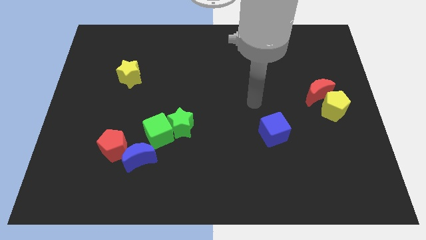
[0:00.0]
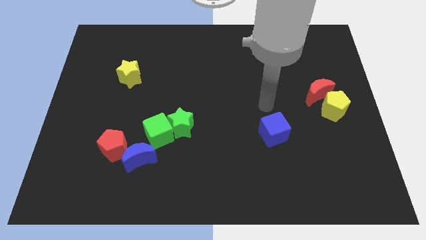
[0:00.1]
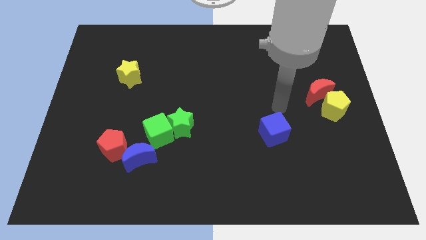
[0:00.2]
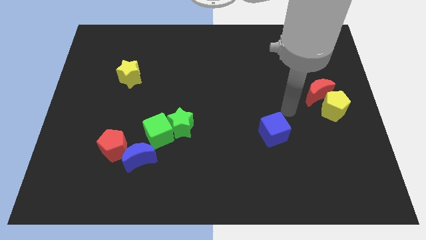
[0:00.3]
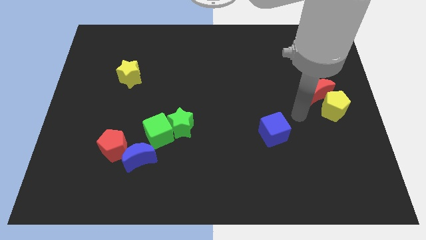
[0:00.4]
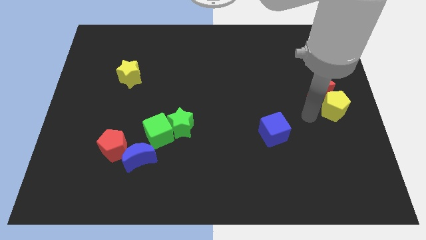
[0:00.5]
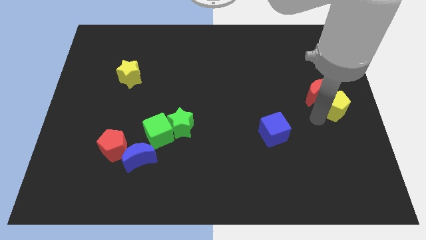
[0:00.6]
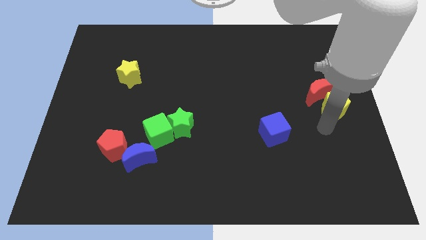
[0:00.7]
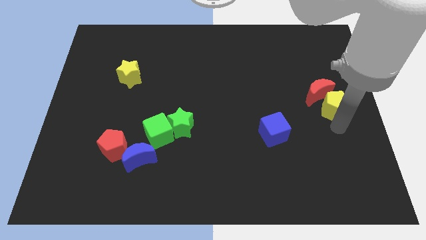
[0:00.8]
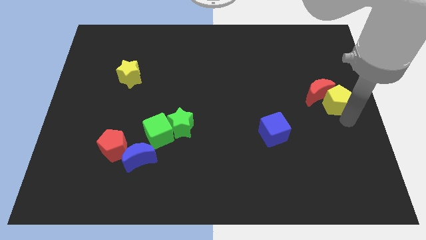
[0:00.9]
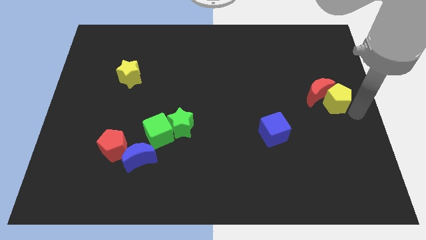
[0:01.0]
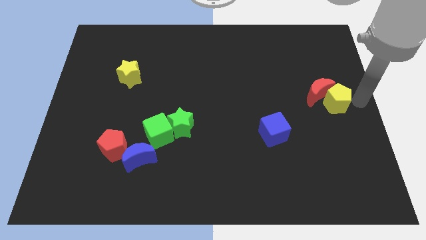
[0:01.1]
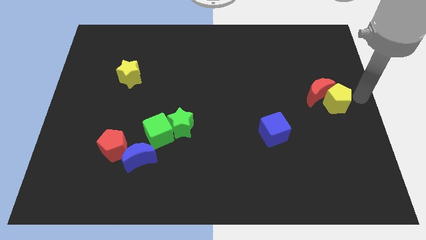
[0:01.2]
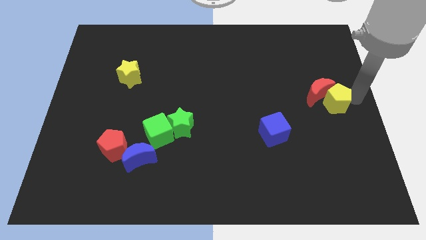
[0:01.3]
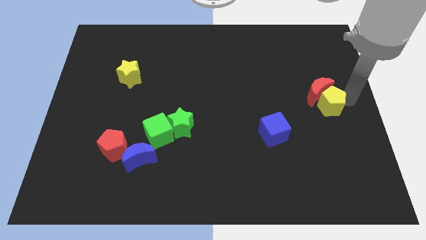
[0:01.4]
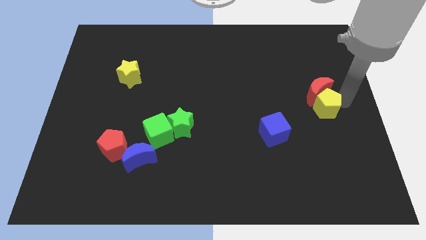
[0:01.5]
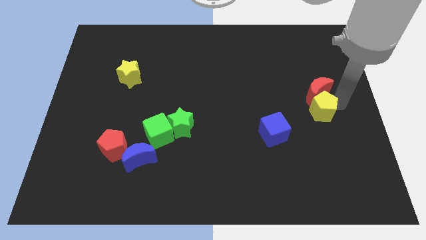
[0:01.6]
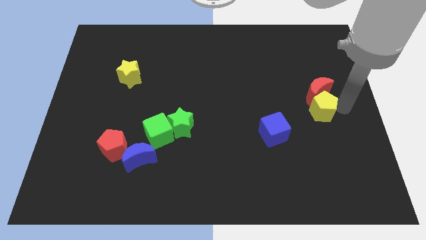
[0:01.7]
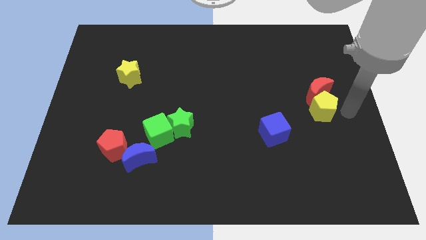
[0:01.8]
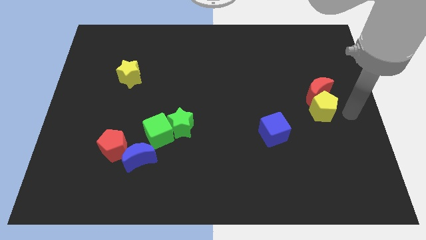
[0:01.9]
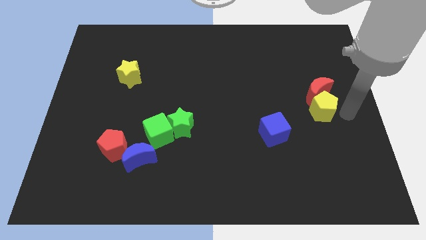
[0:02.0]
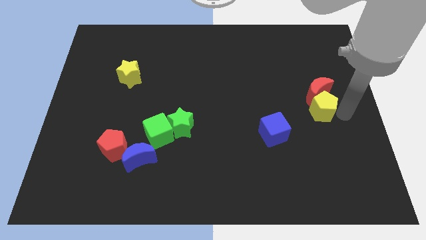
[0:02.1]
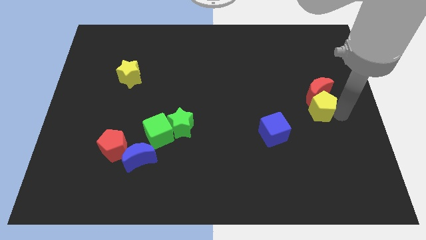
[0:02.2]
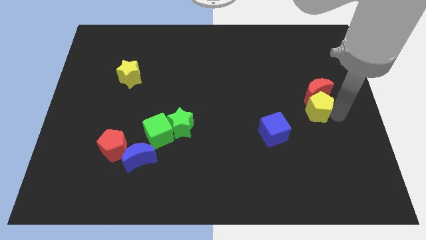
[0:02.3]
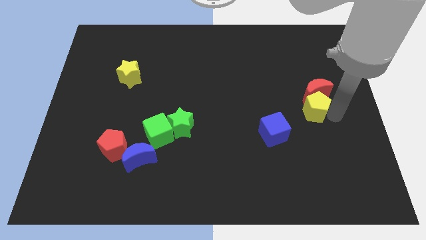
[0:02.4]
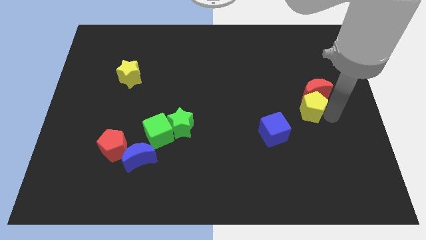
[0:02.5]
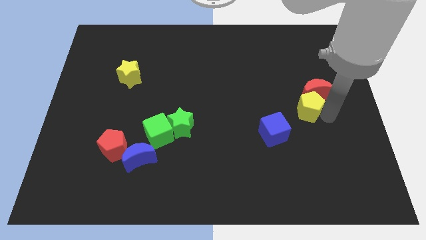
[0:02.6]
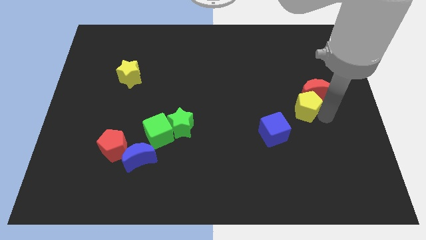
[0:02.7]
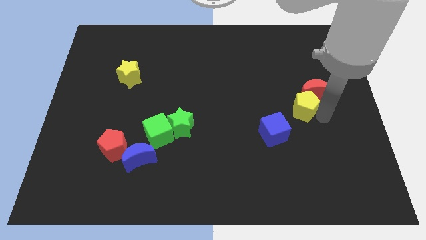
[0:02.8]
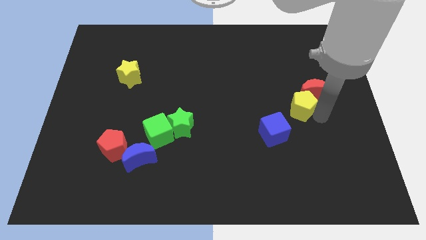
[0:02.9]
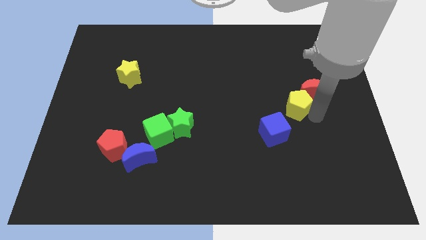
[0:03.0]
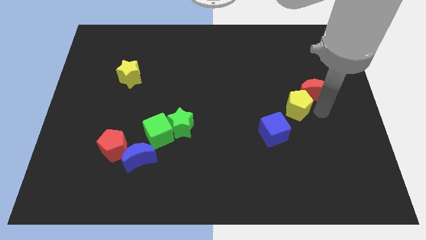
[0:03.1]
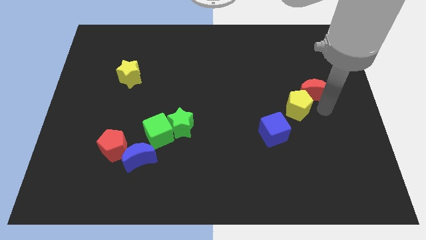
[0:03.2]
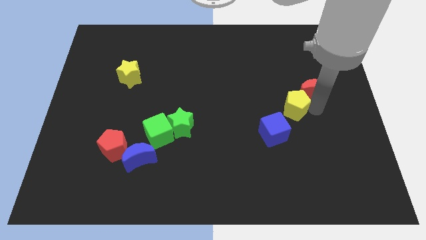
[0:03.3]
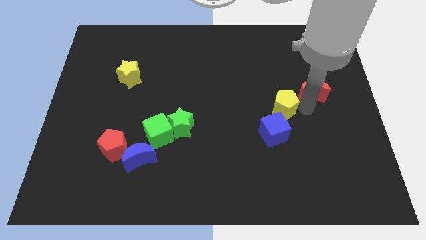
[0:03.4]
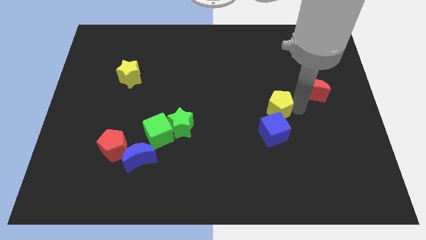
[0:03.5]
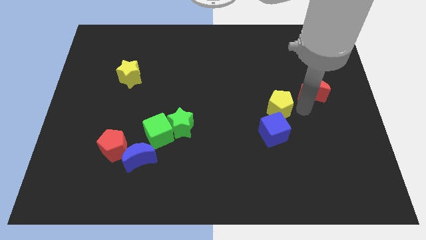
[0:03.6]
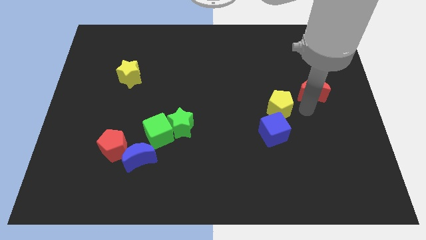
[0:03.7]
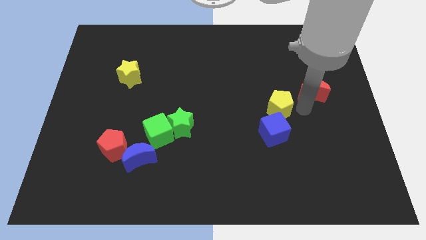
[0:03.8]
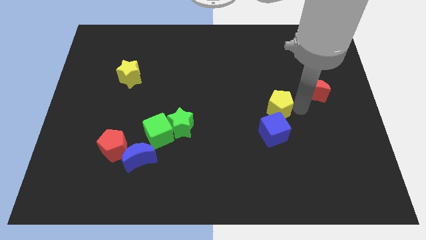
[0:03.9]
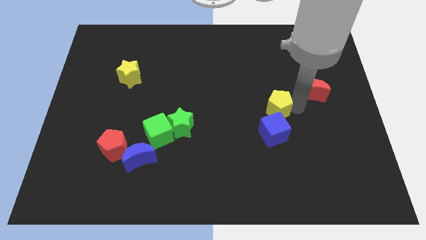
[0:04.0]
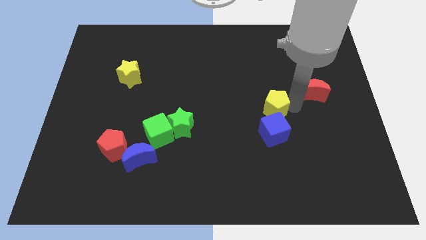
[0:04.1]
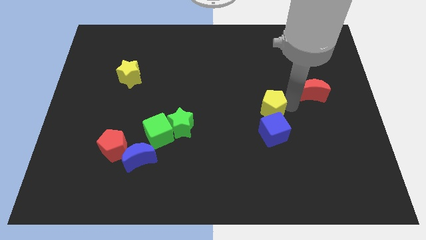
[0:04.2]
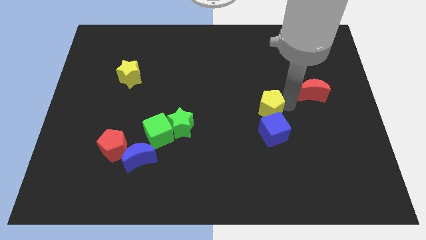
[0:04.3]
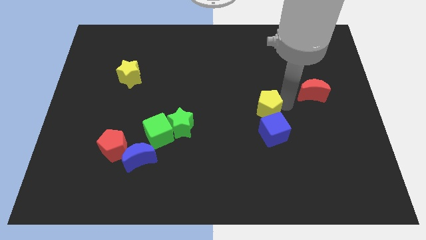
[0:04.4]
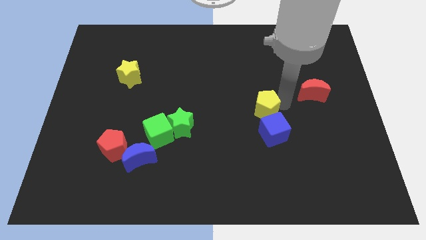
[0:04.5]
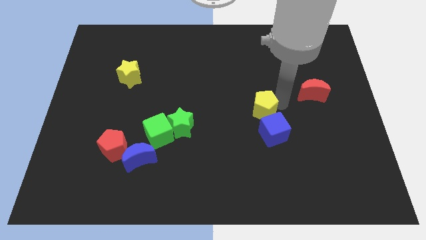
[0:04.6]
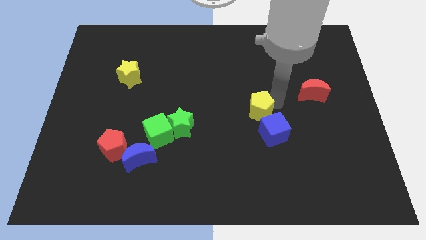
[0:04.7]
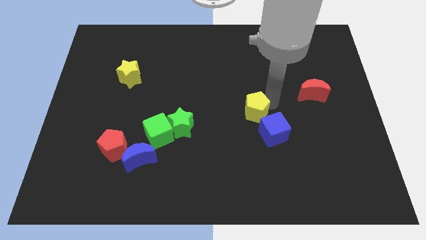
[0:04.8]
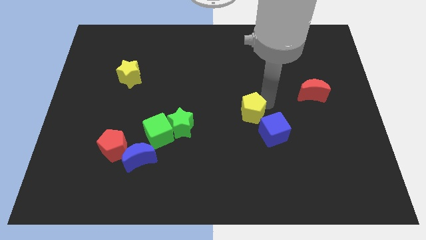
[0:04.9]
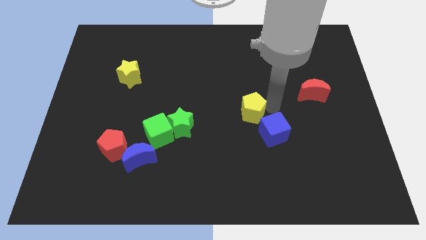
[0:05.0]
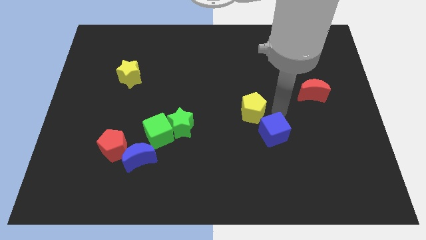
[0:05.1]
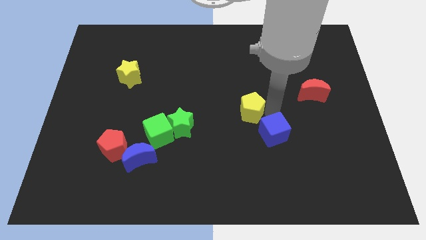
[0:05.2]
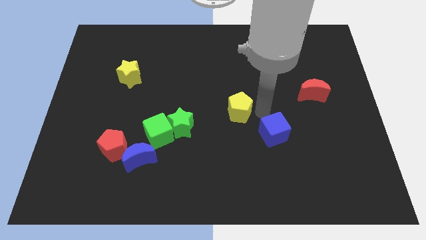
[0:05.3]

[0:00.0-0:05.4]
slide the yellow pentagon left

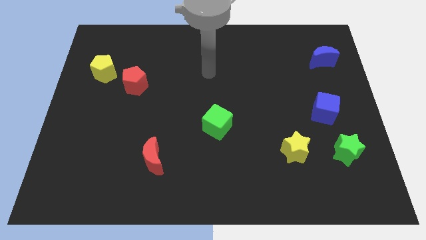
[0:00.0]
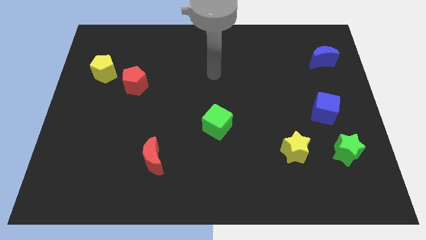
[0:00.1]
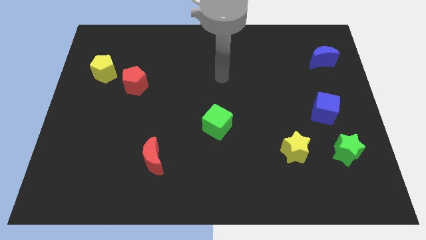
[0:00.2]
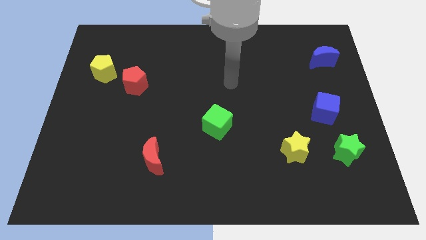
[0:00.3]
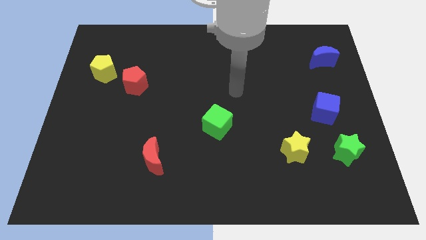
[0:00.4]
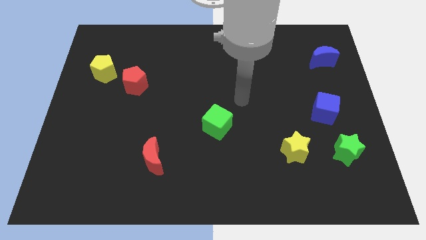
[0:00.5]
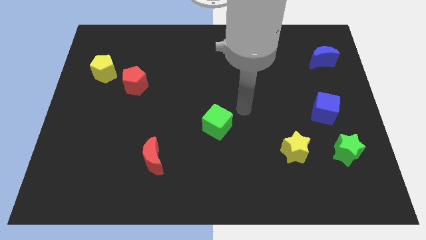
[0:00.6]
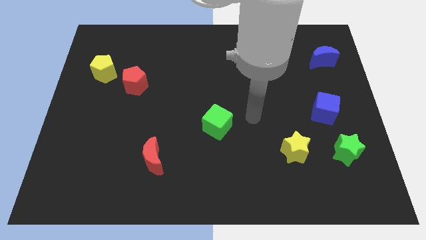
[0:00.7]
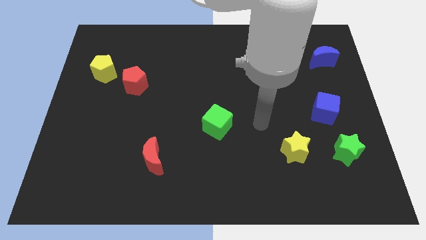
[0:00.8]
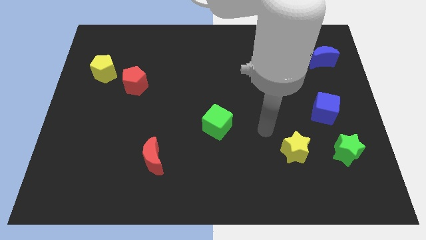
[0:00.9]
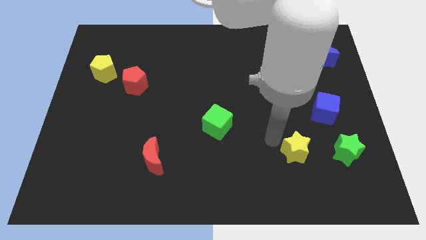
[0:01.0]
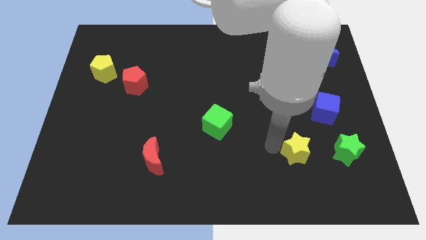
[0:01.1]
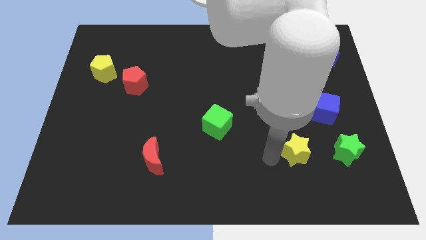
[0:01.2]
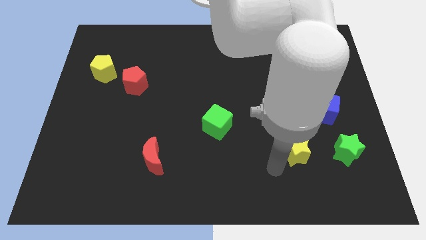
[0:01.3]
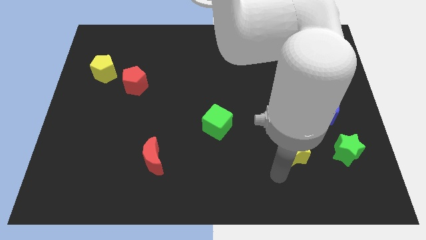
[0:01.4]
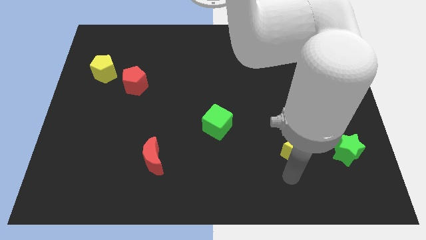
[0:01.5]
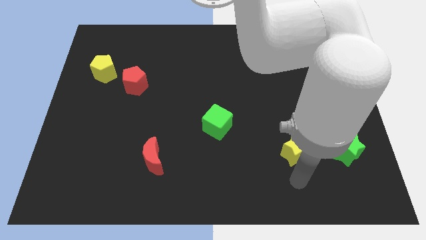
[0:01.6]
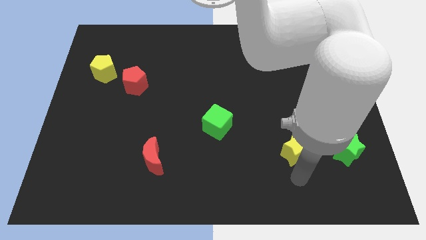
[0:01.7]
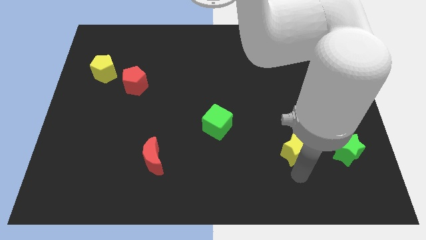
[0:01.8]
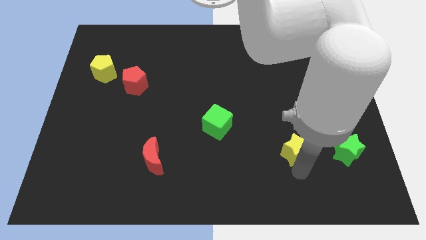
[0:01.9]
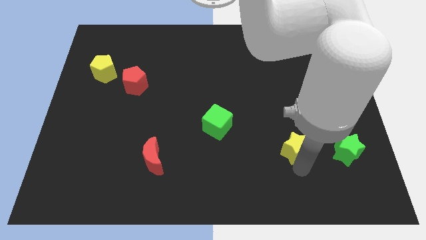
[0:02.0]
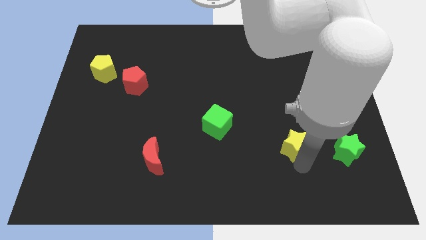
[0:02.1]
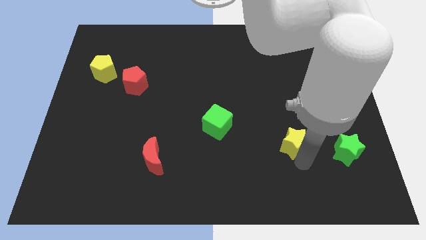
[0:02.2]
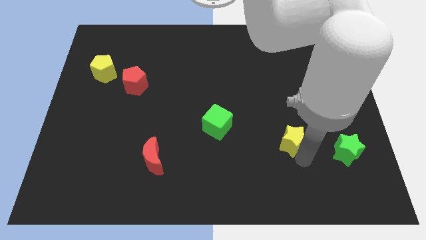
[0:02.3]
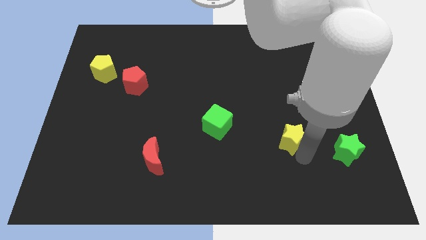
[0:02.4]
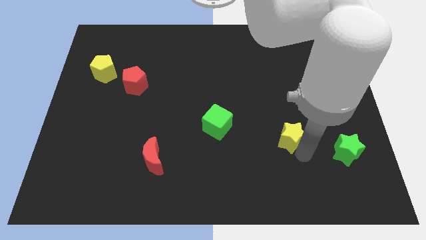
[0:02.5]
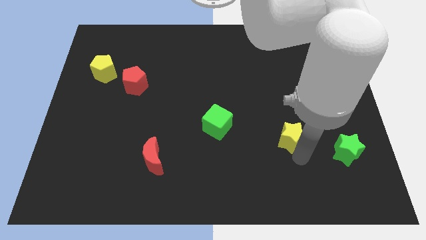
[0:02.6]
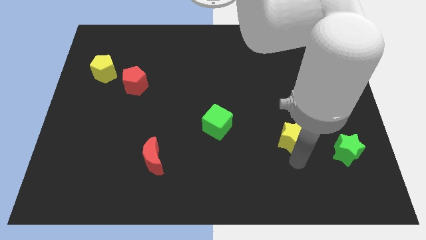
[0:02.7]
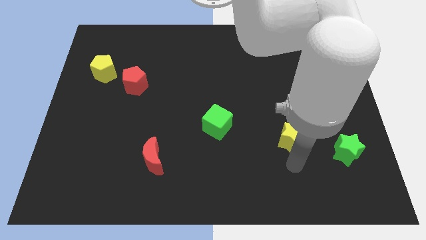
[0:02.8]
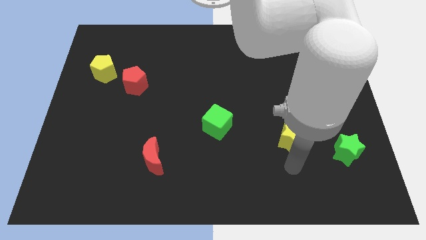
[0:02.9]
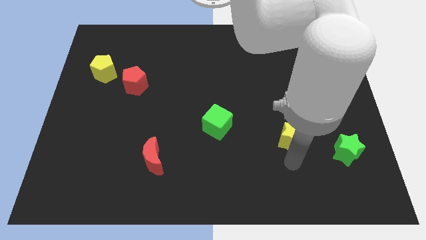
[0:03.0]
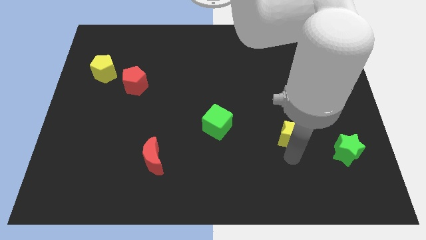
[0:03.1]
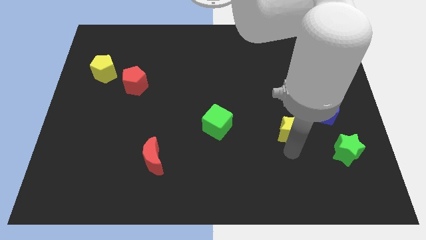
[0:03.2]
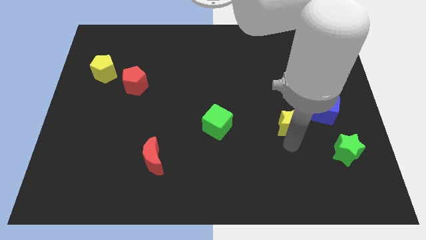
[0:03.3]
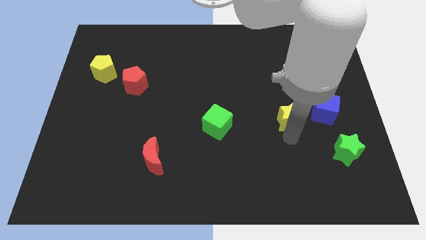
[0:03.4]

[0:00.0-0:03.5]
slide the yellow star a little up
